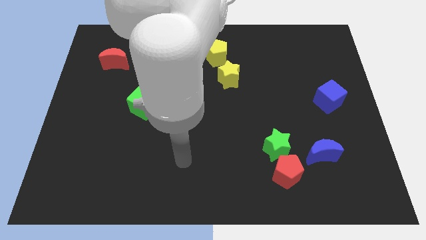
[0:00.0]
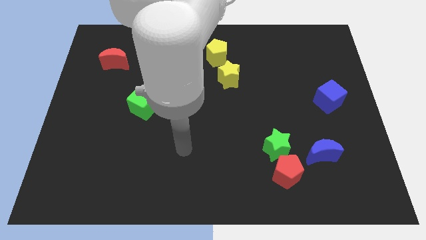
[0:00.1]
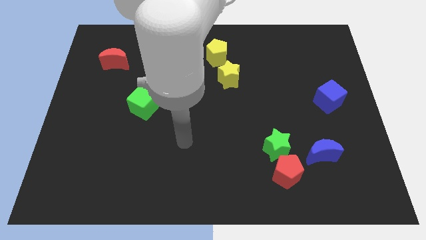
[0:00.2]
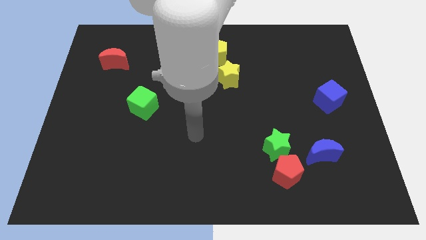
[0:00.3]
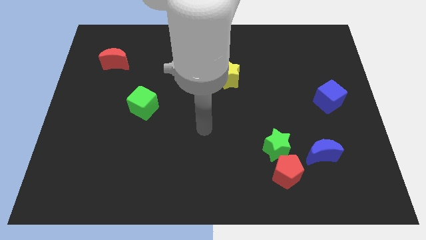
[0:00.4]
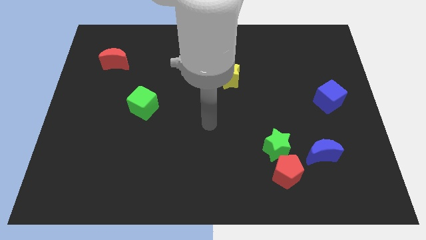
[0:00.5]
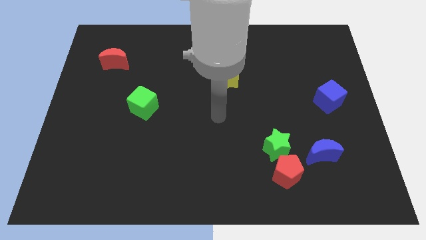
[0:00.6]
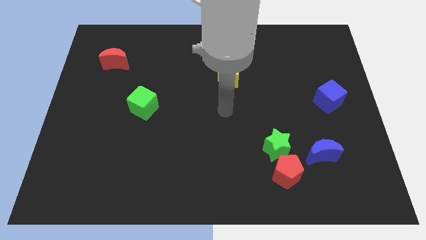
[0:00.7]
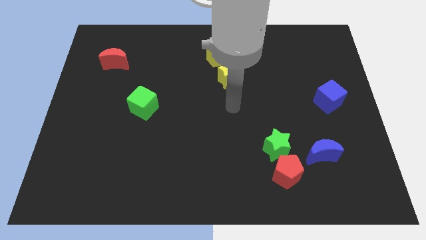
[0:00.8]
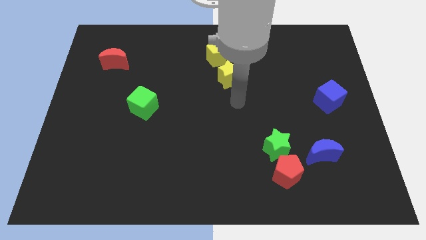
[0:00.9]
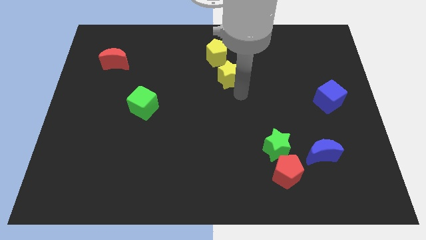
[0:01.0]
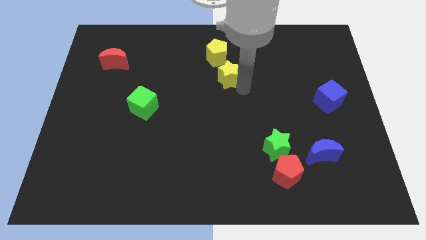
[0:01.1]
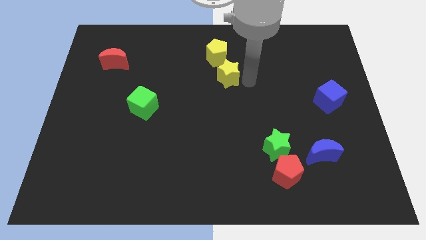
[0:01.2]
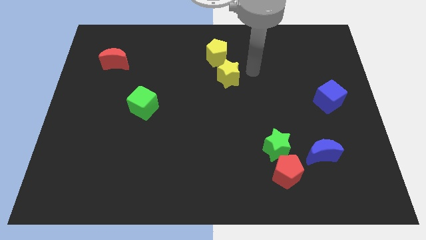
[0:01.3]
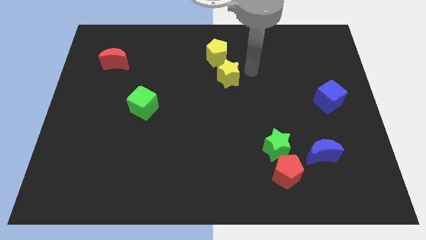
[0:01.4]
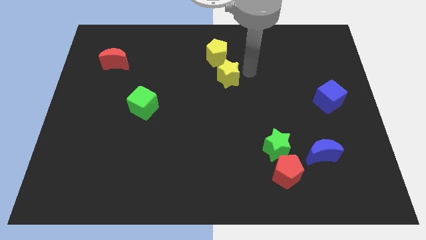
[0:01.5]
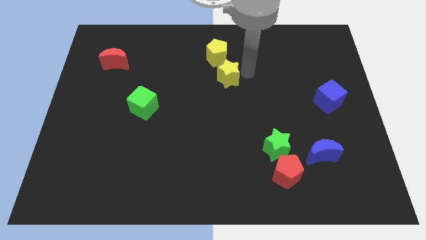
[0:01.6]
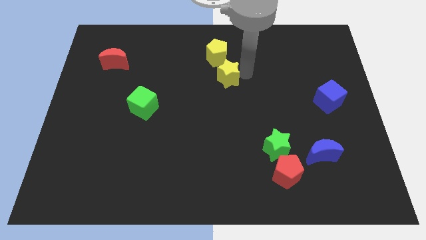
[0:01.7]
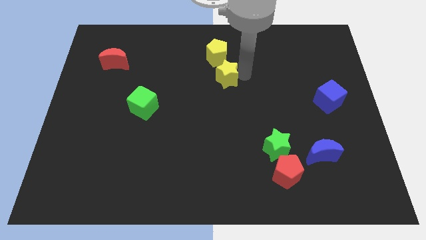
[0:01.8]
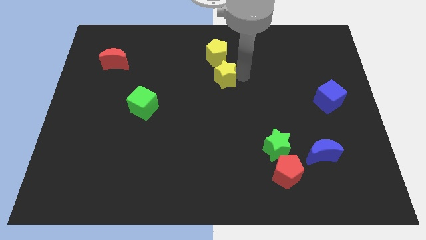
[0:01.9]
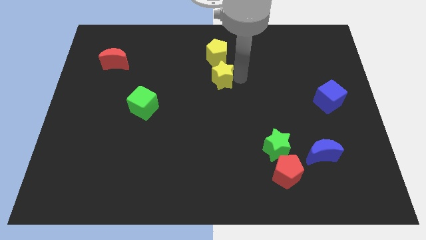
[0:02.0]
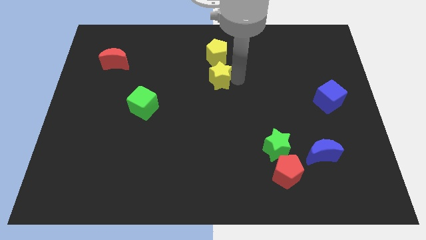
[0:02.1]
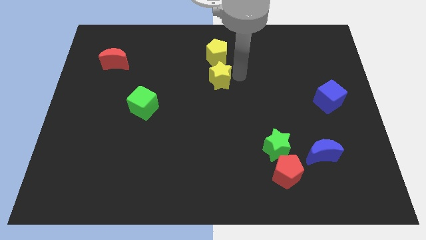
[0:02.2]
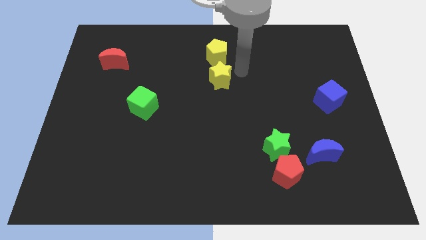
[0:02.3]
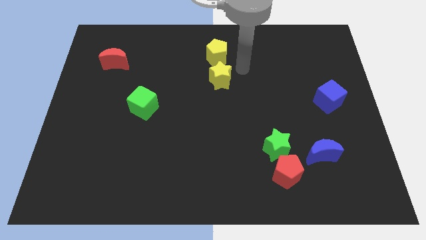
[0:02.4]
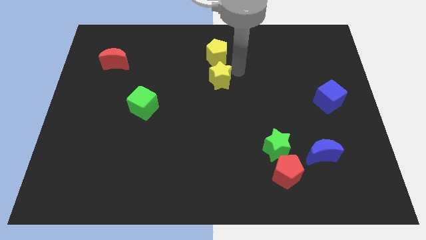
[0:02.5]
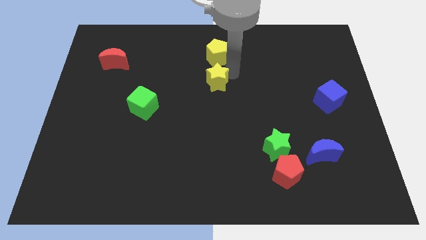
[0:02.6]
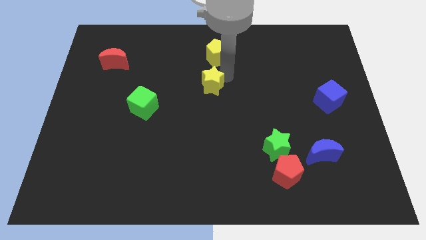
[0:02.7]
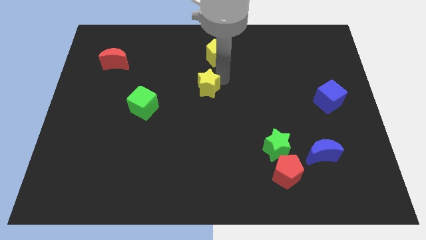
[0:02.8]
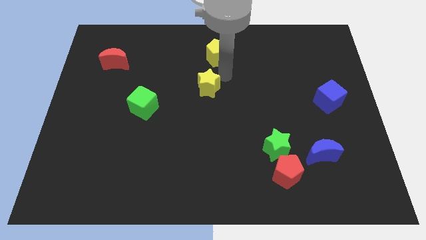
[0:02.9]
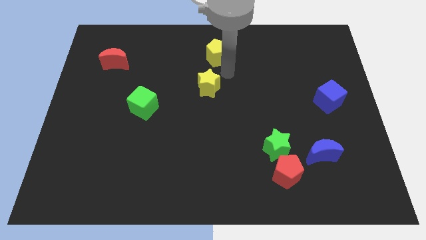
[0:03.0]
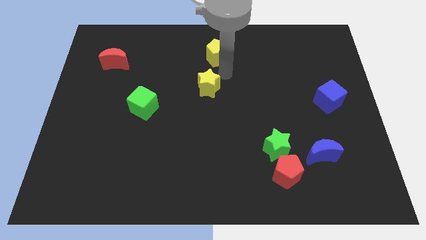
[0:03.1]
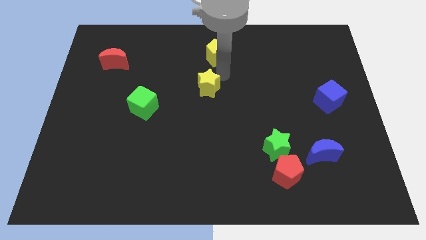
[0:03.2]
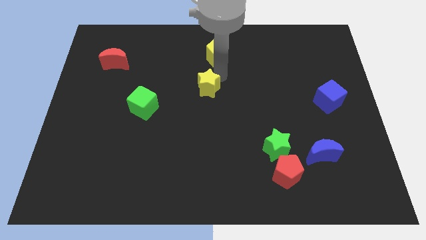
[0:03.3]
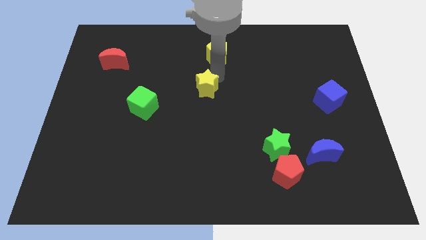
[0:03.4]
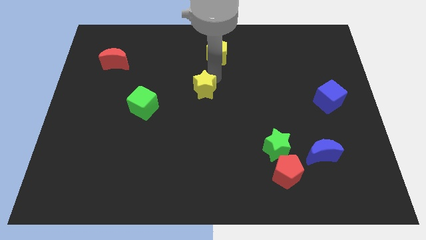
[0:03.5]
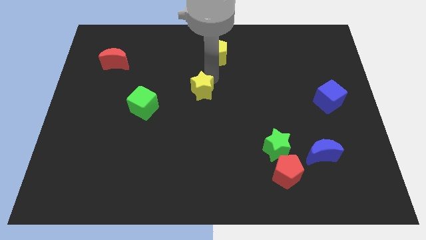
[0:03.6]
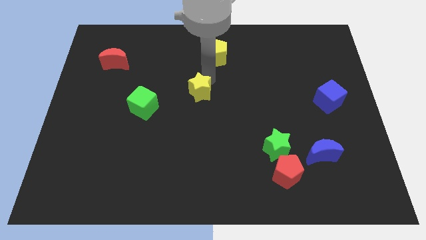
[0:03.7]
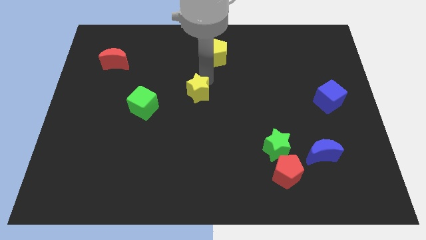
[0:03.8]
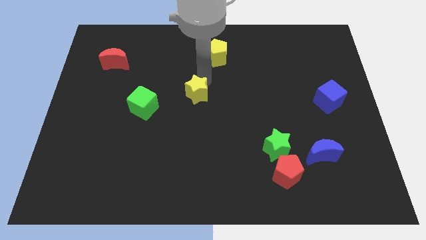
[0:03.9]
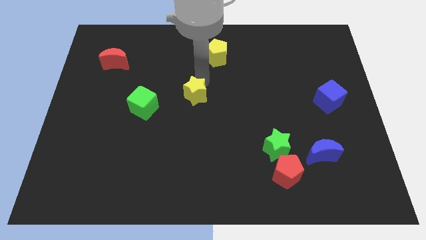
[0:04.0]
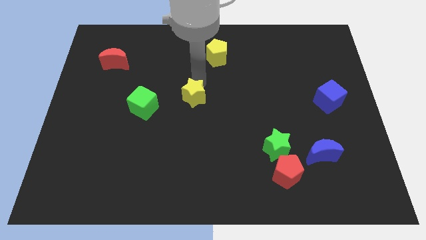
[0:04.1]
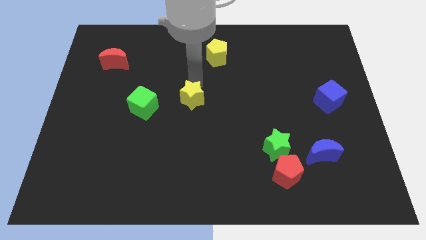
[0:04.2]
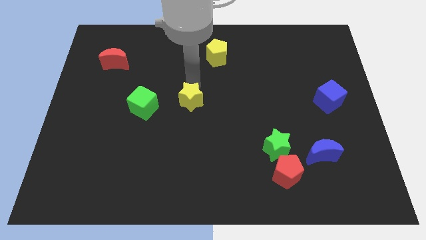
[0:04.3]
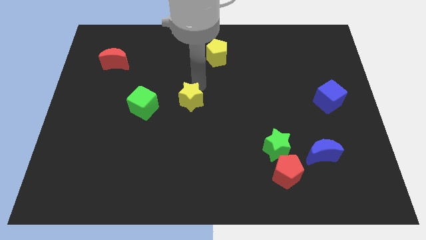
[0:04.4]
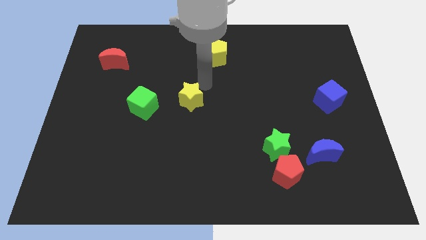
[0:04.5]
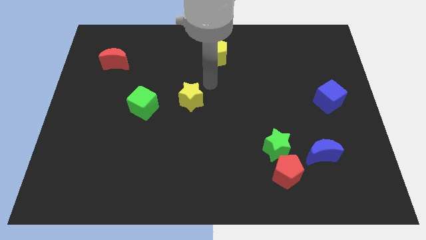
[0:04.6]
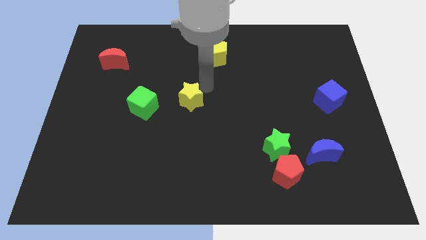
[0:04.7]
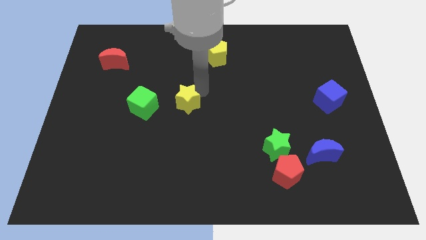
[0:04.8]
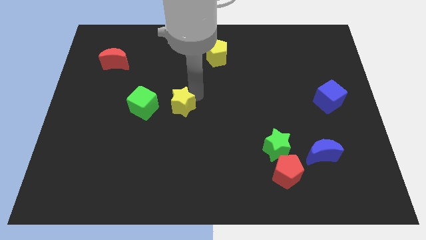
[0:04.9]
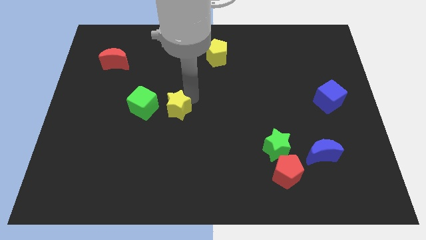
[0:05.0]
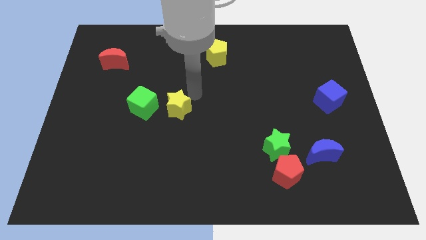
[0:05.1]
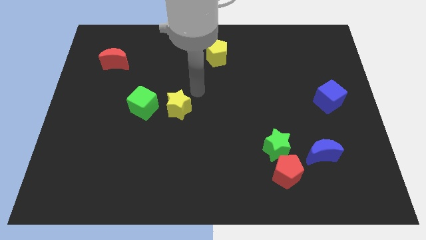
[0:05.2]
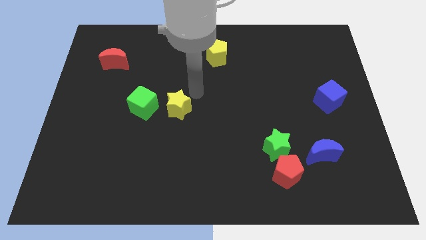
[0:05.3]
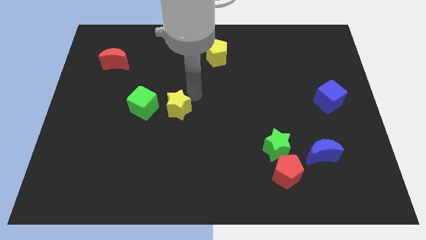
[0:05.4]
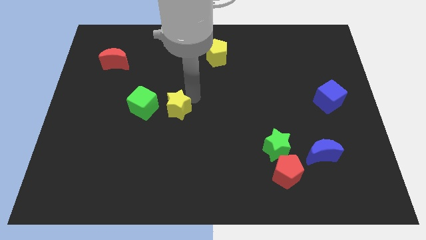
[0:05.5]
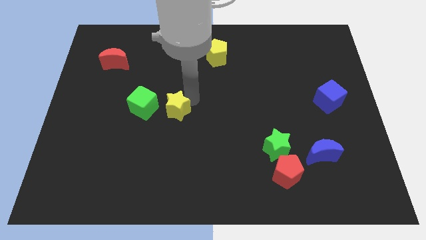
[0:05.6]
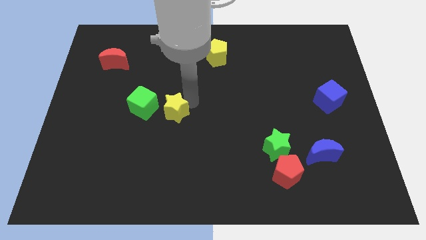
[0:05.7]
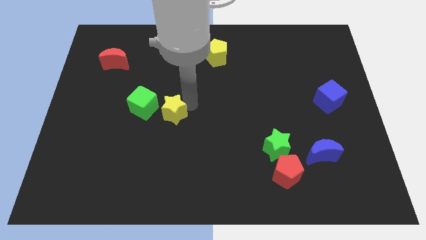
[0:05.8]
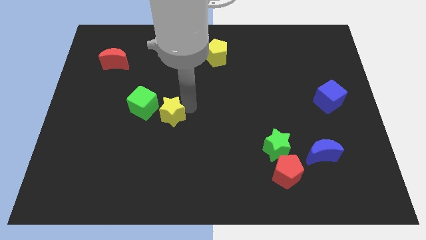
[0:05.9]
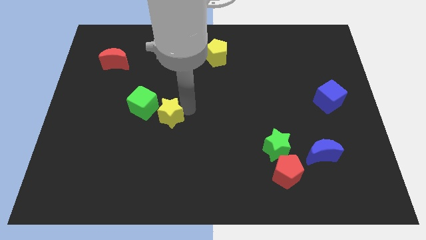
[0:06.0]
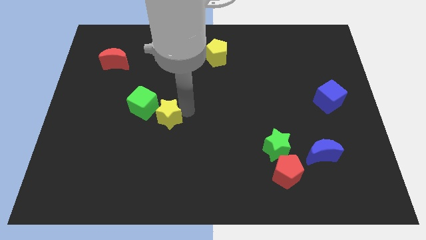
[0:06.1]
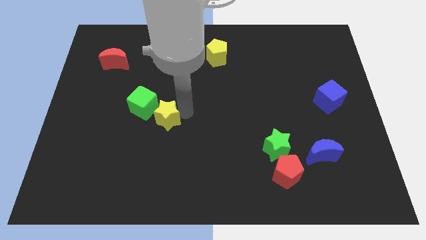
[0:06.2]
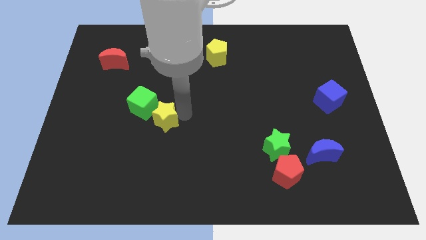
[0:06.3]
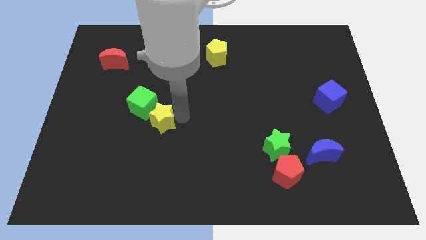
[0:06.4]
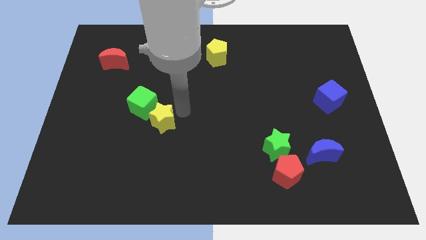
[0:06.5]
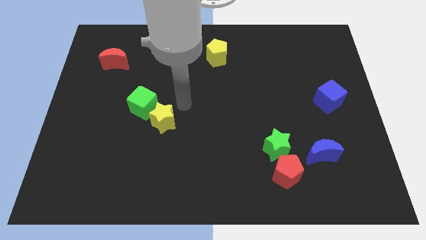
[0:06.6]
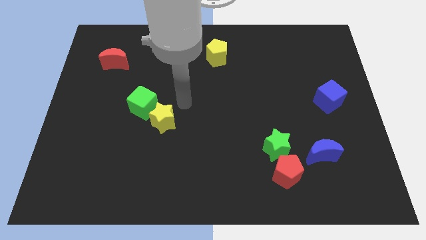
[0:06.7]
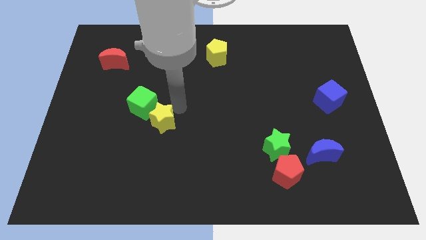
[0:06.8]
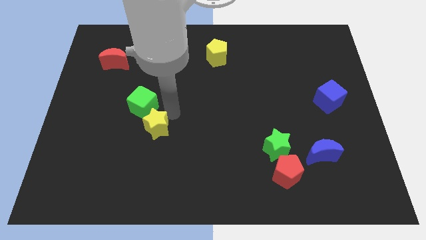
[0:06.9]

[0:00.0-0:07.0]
push the yellow star below the green cube
